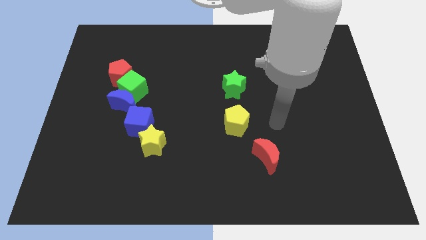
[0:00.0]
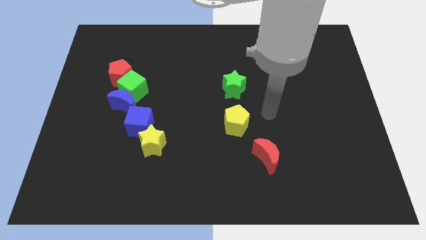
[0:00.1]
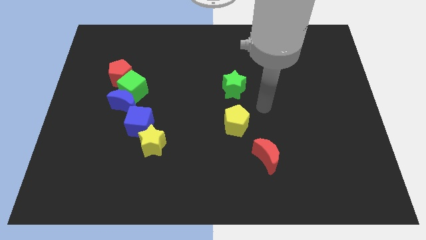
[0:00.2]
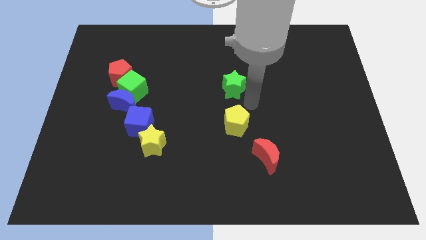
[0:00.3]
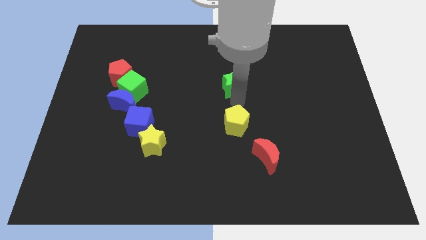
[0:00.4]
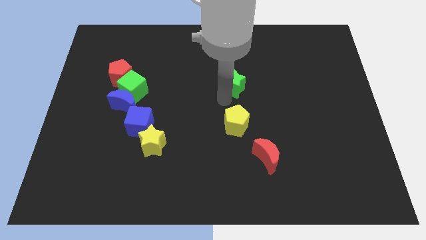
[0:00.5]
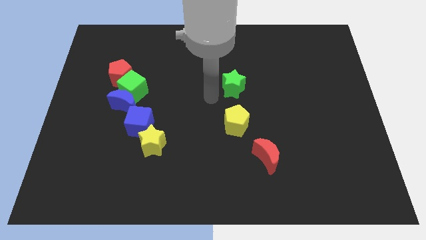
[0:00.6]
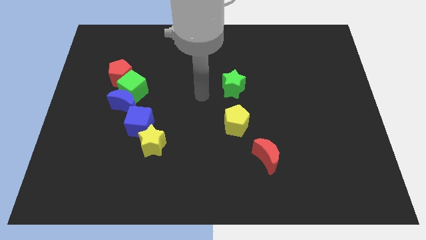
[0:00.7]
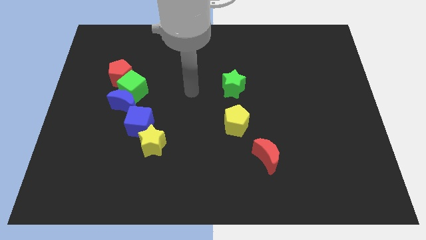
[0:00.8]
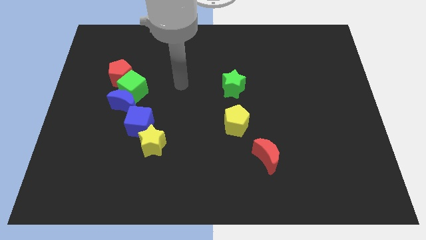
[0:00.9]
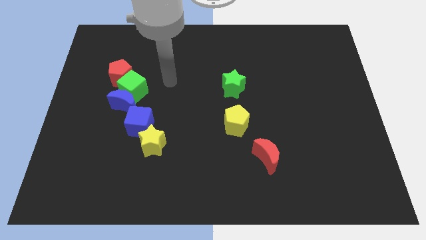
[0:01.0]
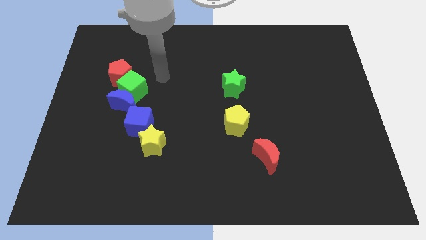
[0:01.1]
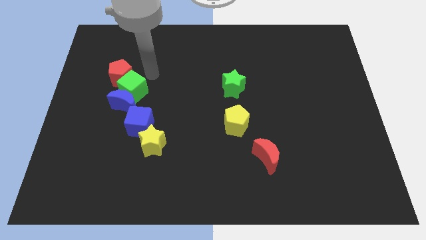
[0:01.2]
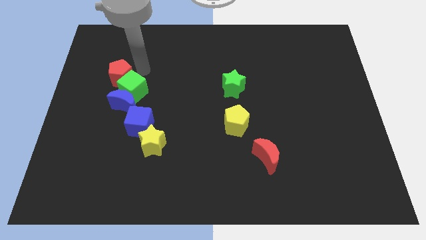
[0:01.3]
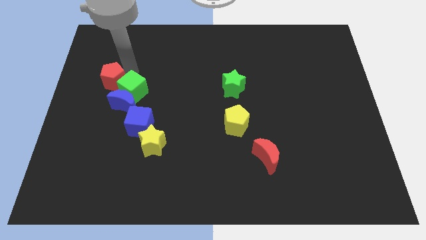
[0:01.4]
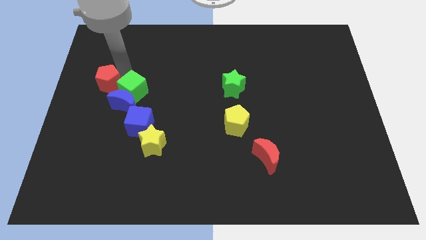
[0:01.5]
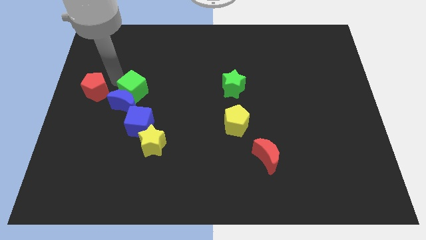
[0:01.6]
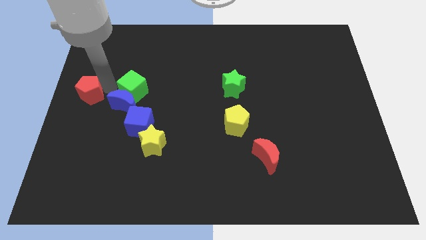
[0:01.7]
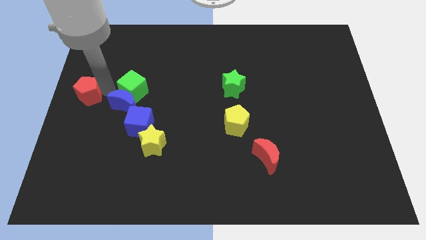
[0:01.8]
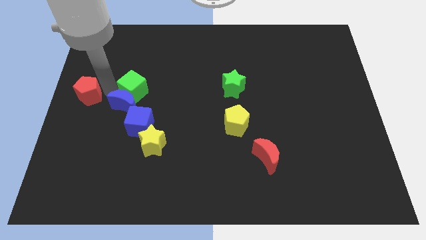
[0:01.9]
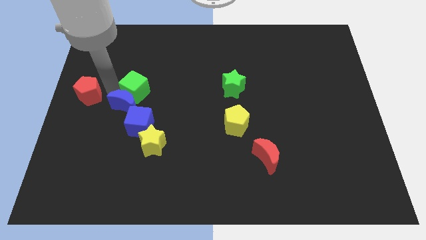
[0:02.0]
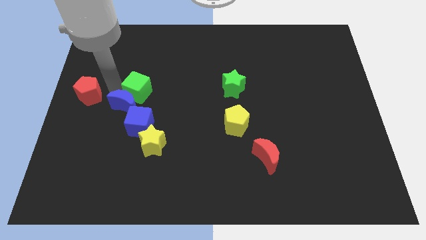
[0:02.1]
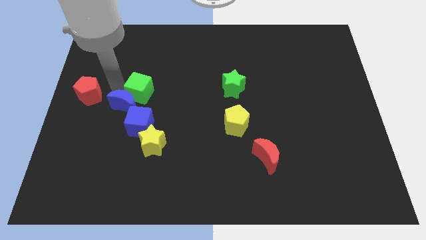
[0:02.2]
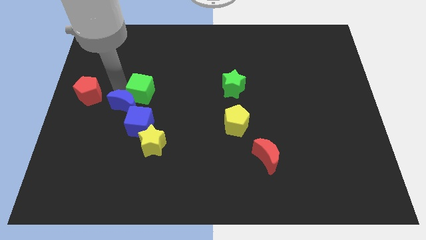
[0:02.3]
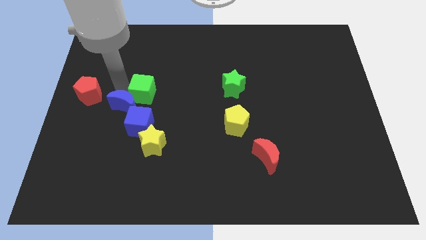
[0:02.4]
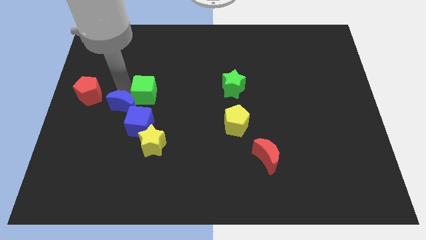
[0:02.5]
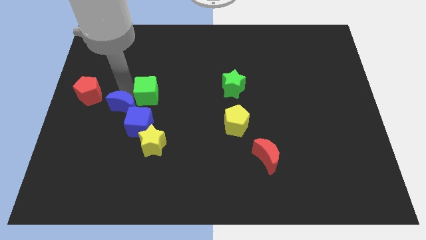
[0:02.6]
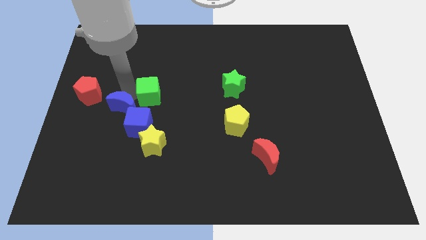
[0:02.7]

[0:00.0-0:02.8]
separate the green cube from the blue moon and red pentagon

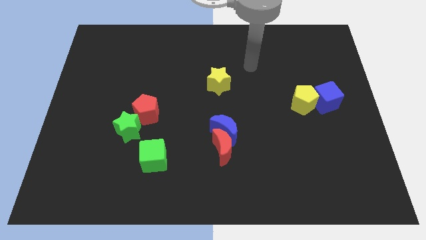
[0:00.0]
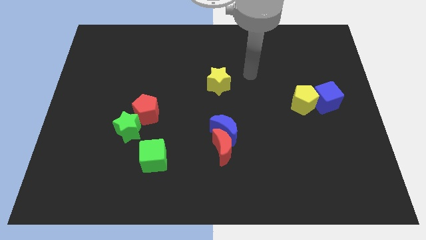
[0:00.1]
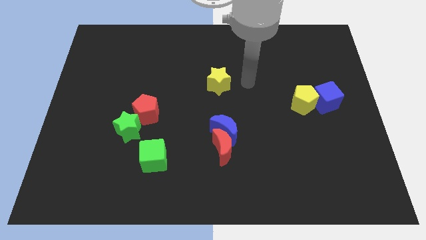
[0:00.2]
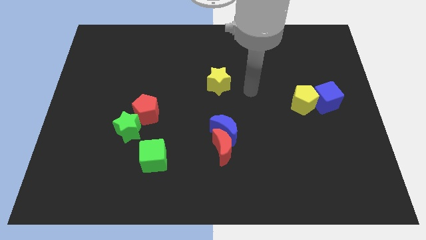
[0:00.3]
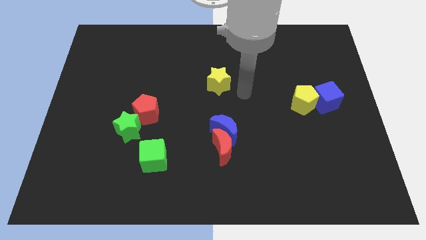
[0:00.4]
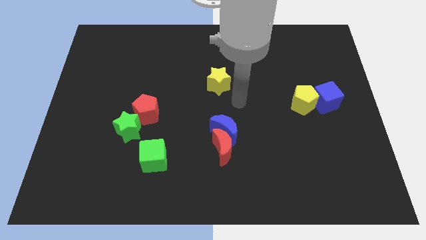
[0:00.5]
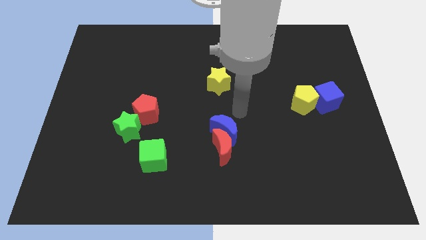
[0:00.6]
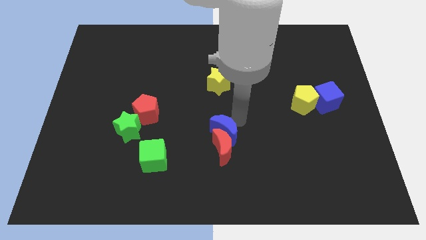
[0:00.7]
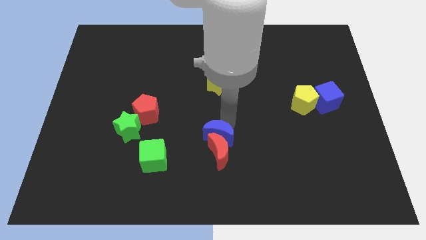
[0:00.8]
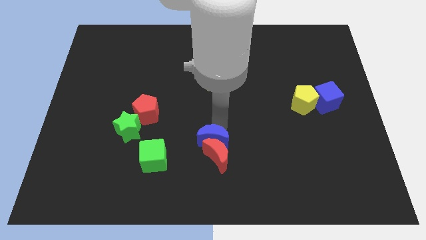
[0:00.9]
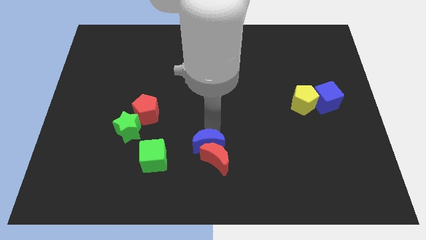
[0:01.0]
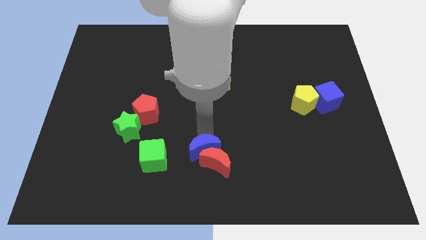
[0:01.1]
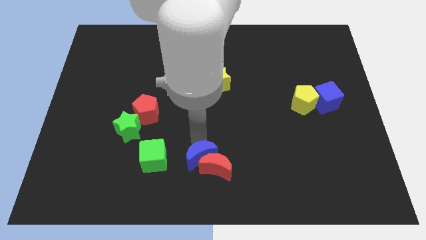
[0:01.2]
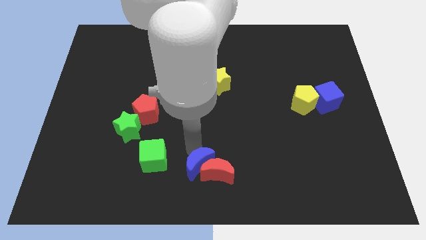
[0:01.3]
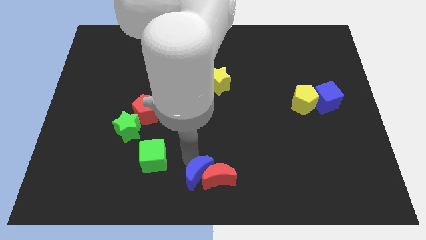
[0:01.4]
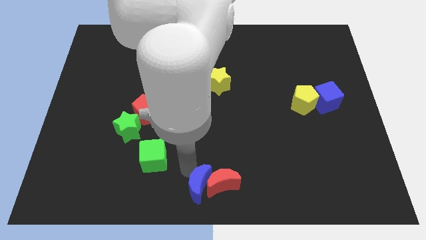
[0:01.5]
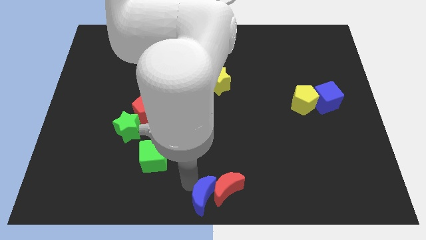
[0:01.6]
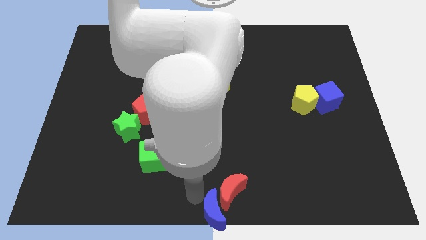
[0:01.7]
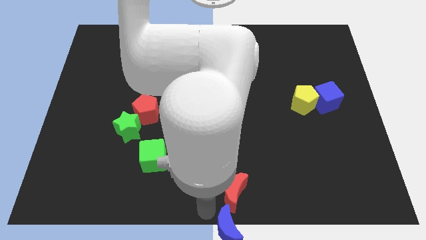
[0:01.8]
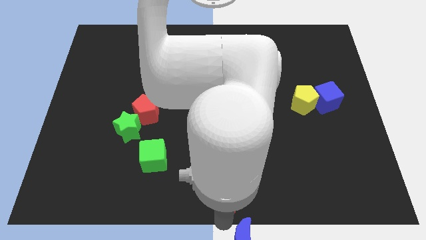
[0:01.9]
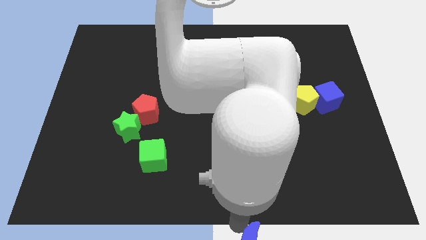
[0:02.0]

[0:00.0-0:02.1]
move the red moon away from the blue moon

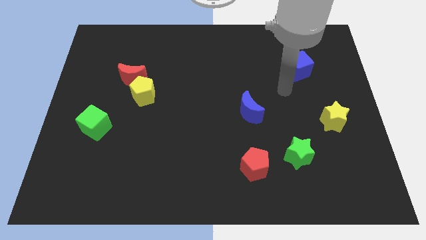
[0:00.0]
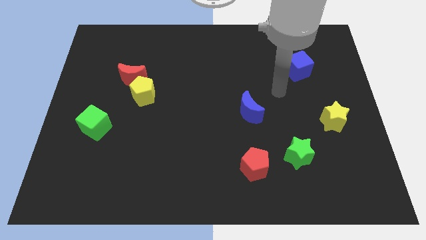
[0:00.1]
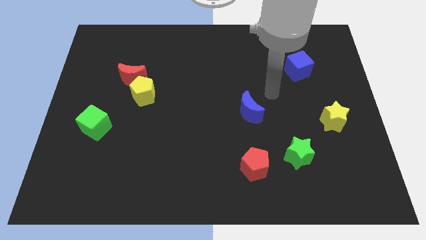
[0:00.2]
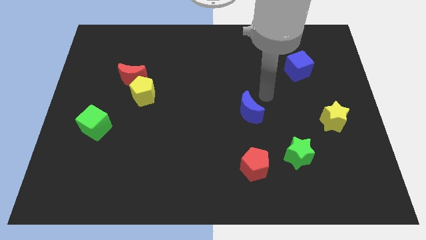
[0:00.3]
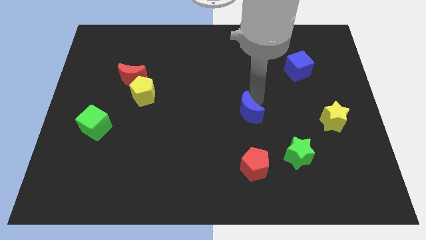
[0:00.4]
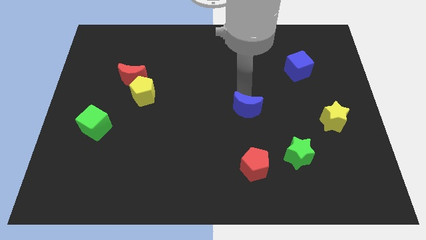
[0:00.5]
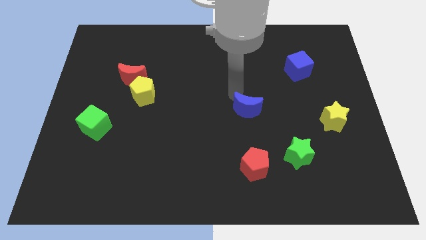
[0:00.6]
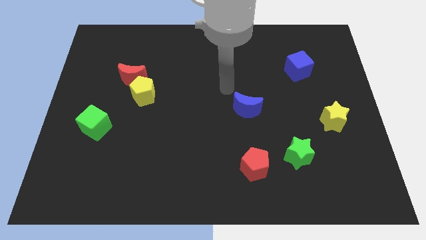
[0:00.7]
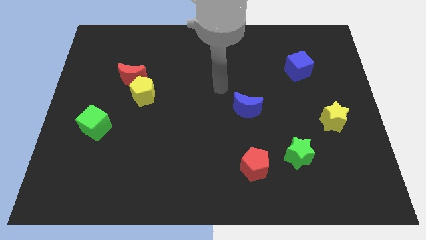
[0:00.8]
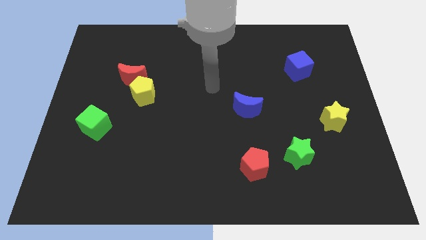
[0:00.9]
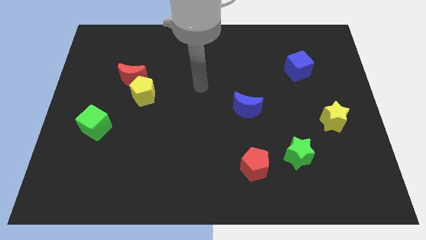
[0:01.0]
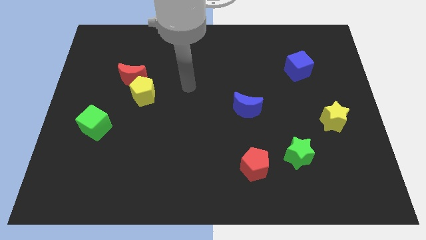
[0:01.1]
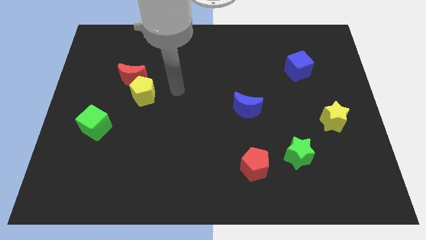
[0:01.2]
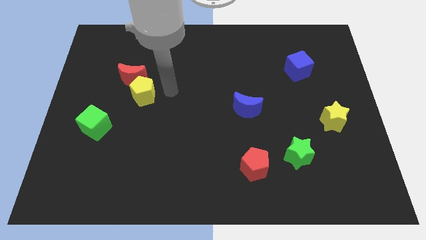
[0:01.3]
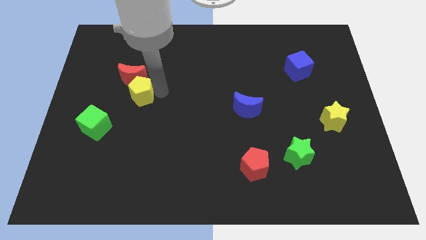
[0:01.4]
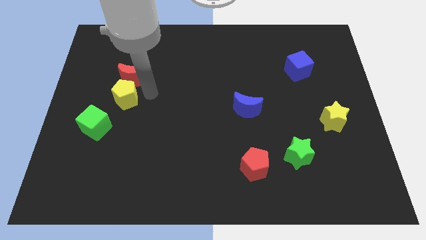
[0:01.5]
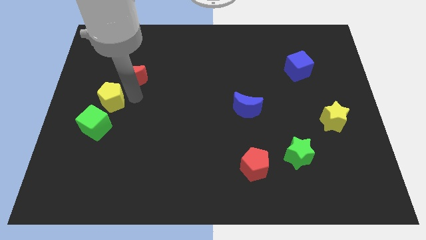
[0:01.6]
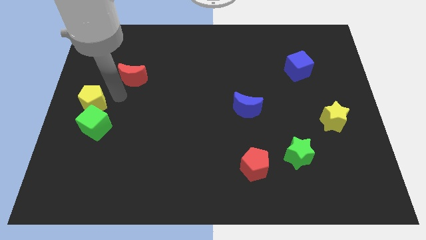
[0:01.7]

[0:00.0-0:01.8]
separate the red moon from the yellow pentagon

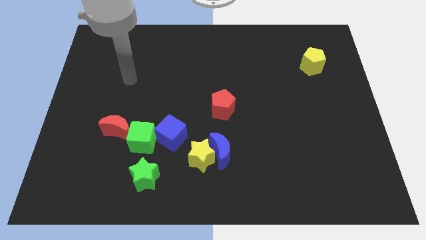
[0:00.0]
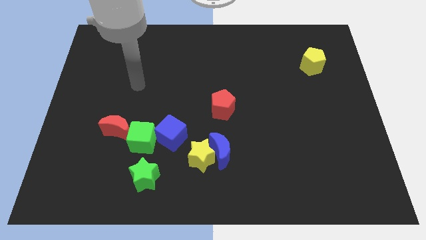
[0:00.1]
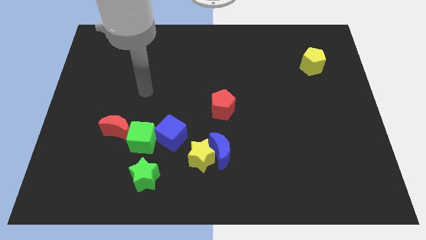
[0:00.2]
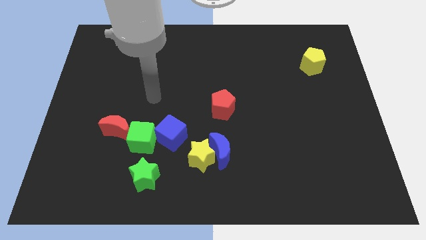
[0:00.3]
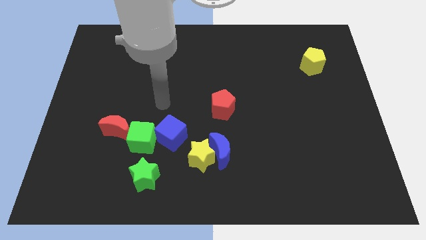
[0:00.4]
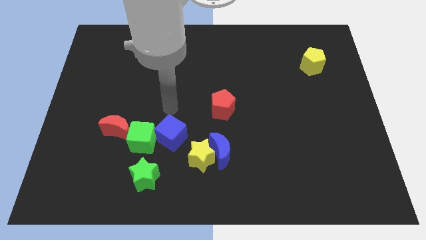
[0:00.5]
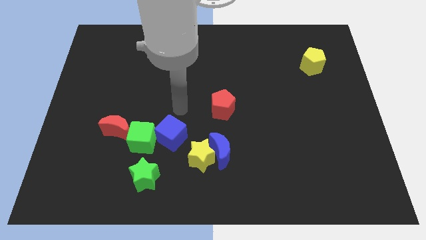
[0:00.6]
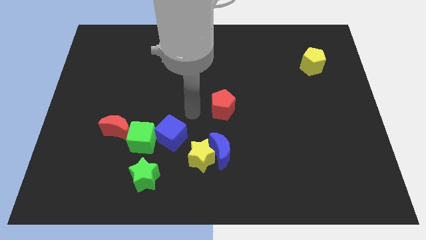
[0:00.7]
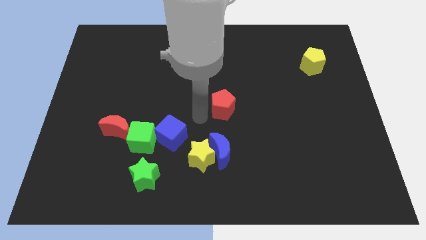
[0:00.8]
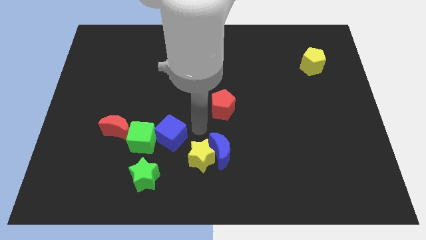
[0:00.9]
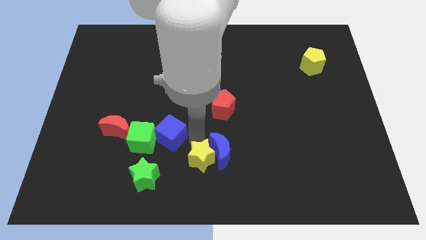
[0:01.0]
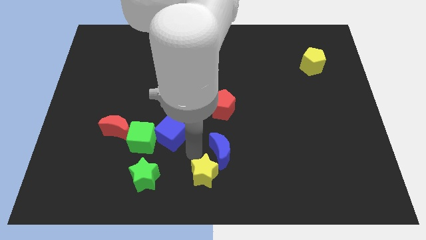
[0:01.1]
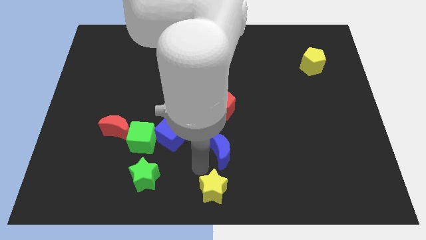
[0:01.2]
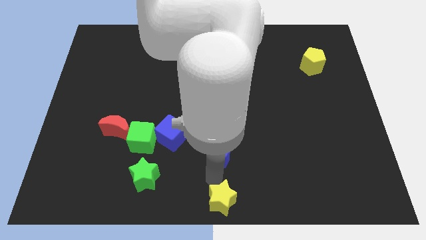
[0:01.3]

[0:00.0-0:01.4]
move the blue moon away from the yellow star

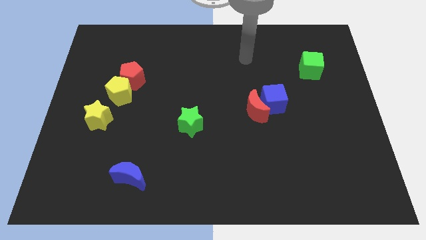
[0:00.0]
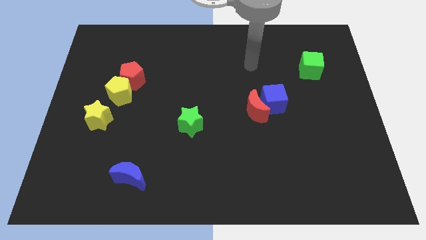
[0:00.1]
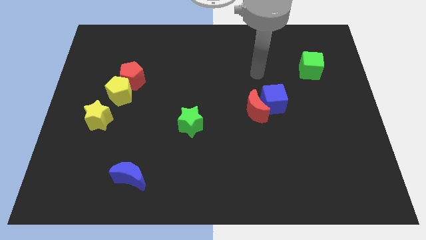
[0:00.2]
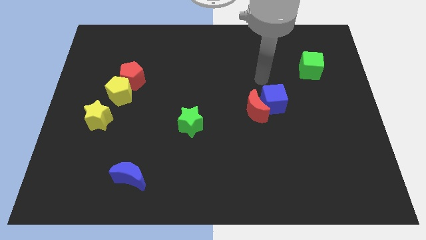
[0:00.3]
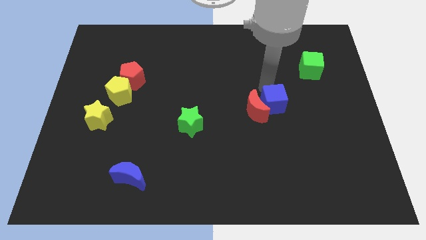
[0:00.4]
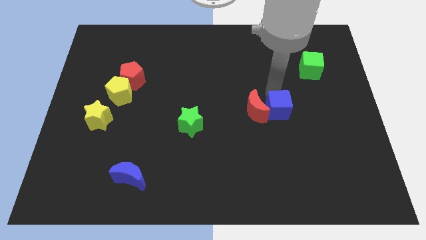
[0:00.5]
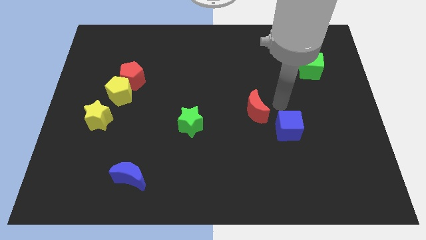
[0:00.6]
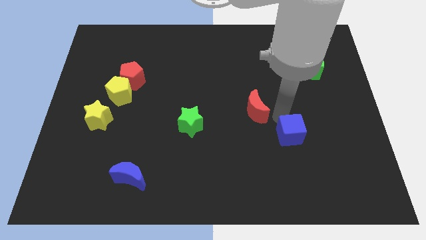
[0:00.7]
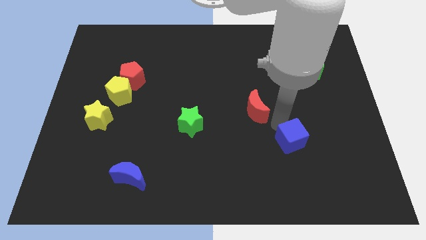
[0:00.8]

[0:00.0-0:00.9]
pull the red moon apart from the blue cube

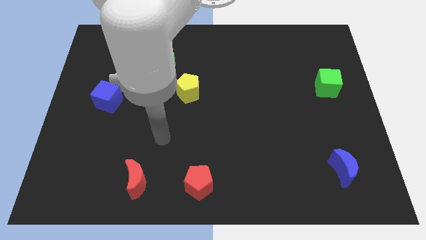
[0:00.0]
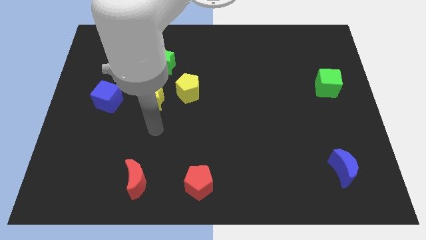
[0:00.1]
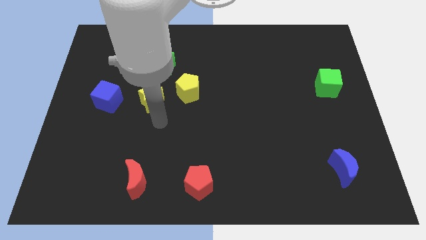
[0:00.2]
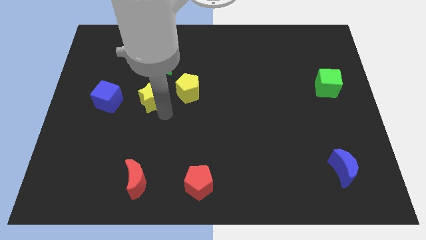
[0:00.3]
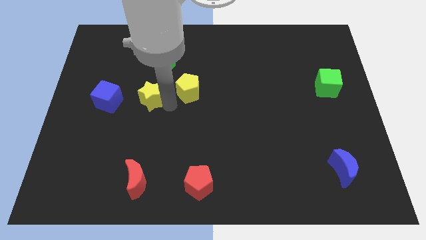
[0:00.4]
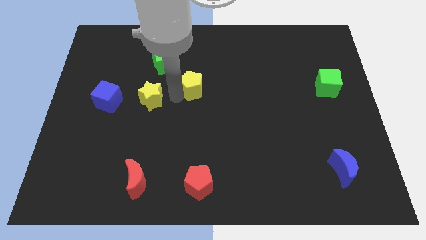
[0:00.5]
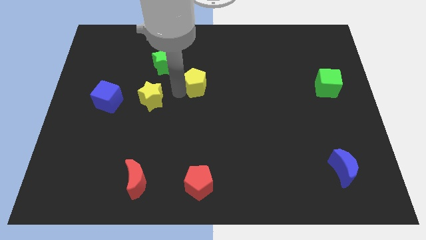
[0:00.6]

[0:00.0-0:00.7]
pull the yellow star apart from the yellow pentagon
